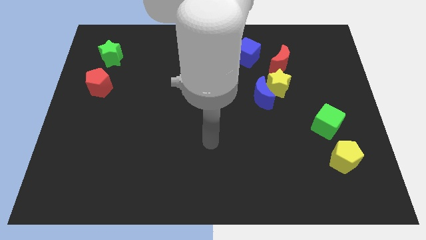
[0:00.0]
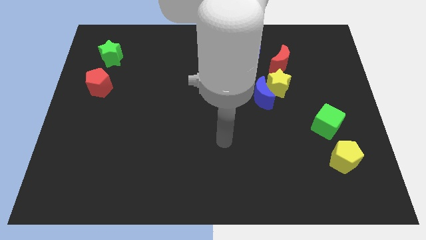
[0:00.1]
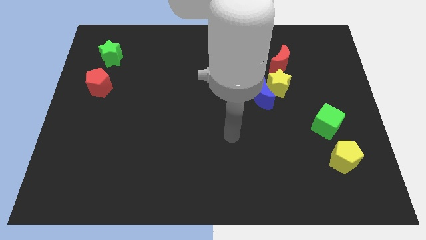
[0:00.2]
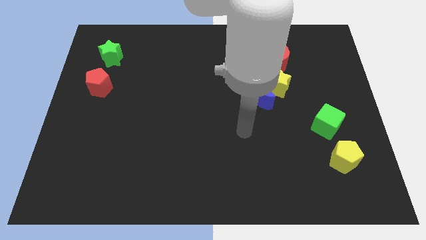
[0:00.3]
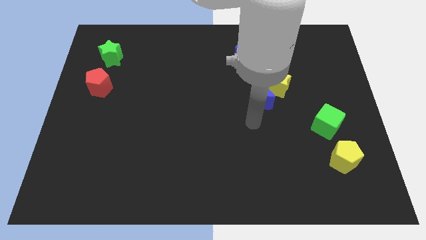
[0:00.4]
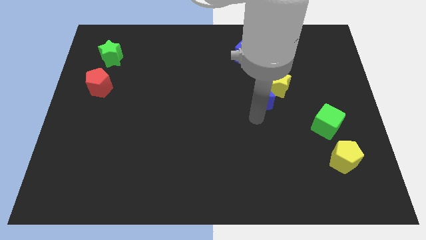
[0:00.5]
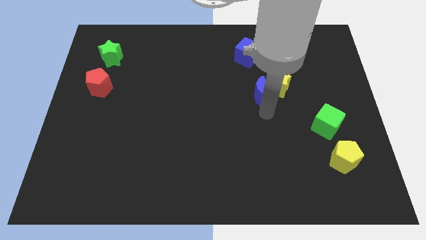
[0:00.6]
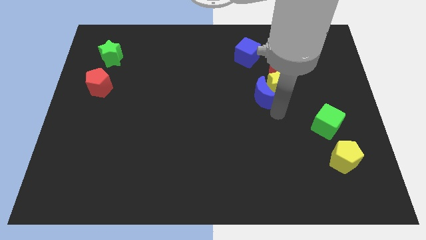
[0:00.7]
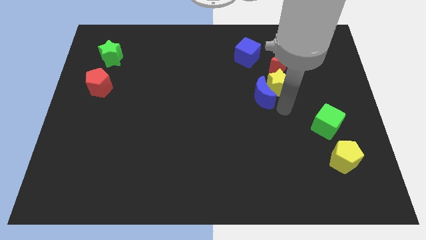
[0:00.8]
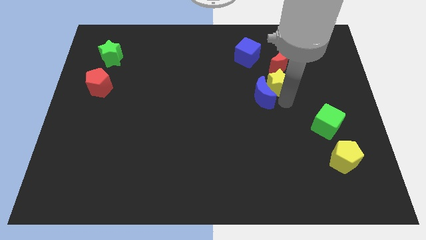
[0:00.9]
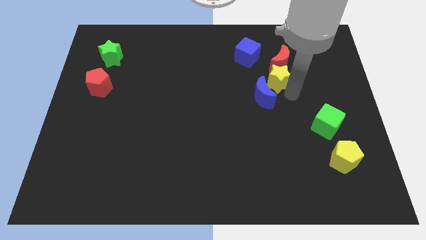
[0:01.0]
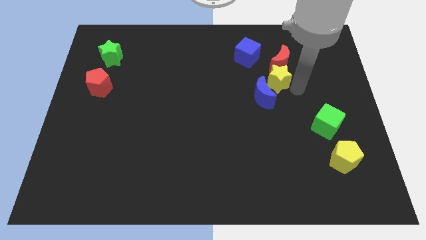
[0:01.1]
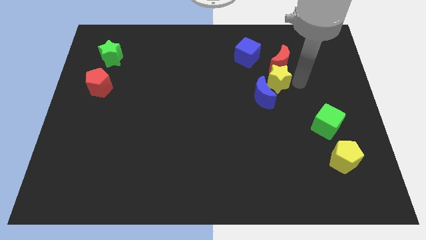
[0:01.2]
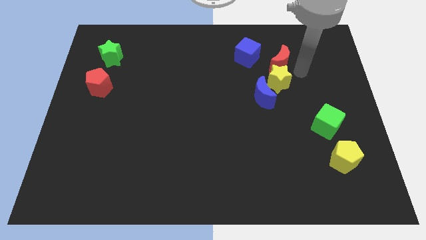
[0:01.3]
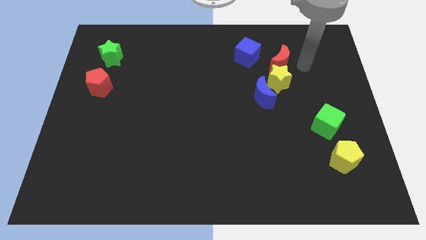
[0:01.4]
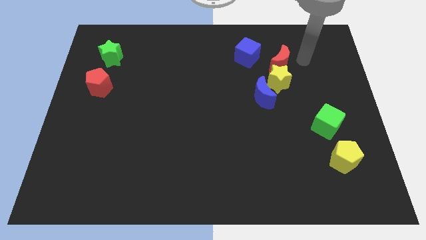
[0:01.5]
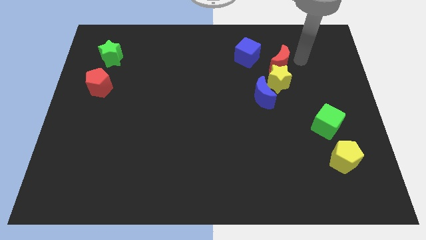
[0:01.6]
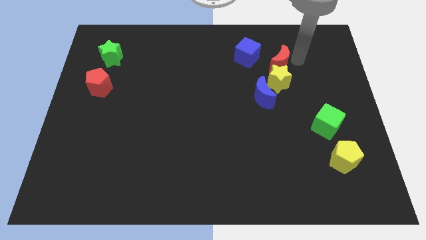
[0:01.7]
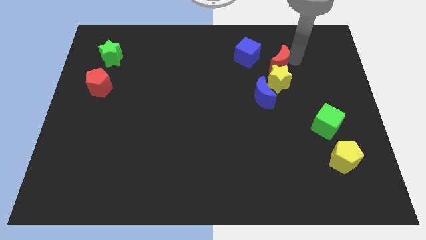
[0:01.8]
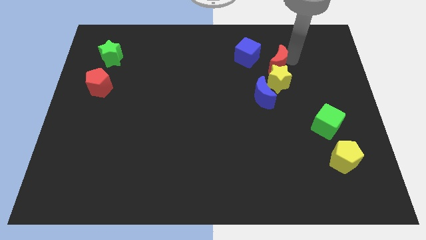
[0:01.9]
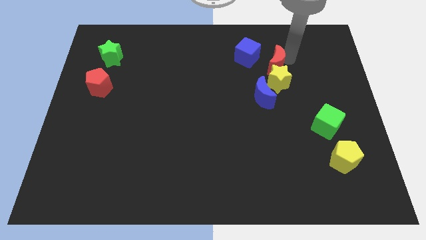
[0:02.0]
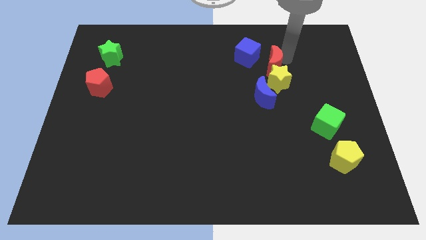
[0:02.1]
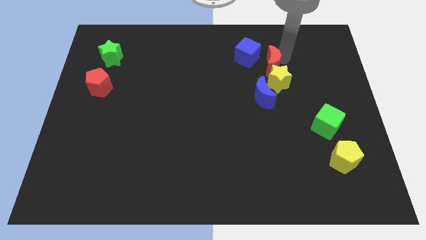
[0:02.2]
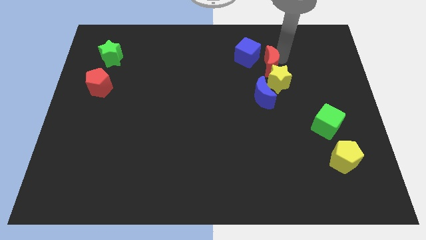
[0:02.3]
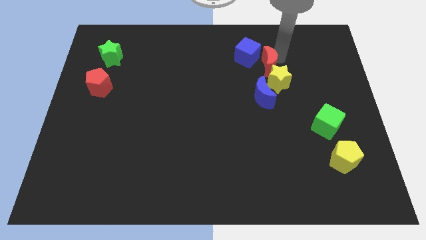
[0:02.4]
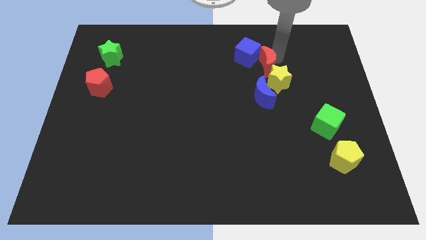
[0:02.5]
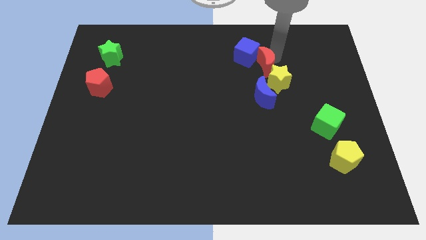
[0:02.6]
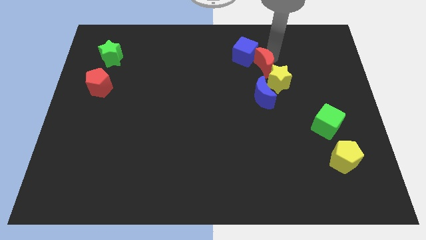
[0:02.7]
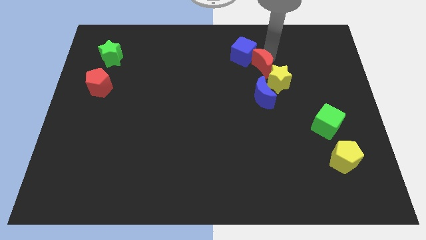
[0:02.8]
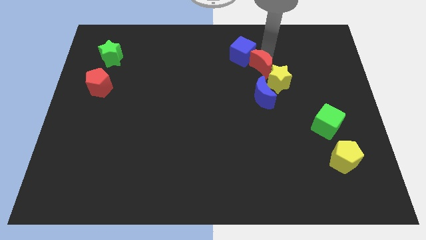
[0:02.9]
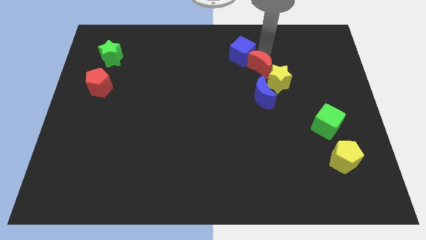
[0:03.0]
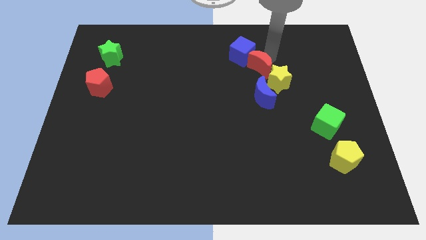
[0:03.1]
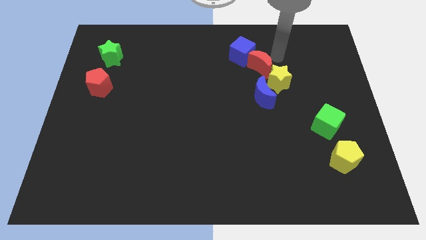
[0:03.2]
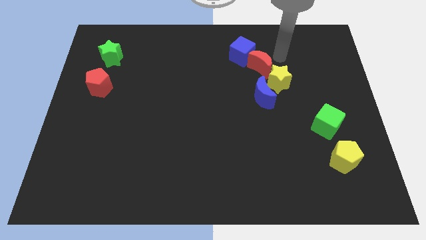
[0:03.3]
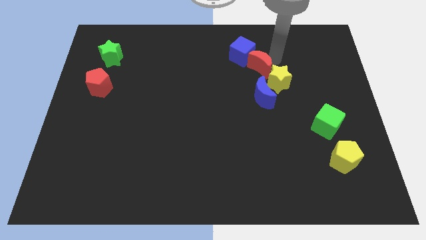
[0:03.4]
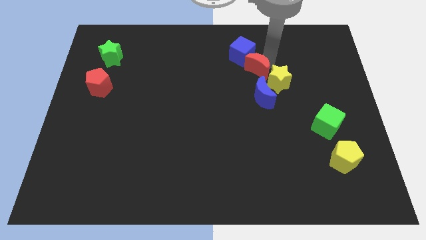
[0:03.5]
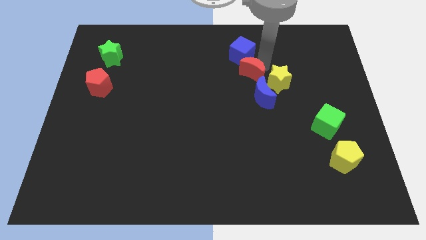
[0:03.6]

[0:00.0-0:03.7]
push the red moon left a little

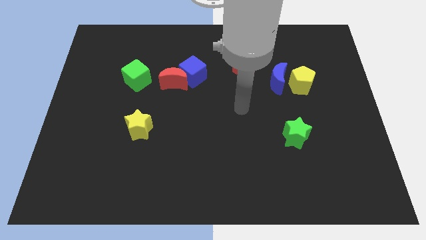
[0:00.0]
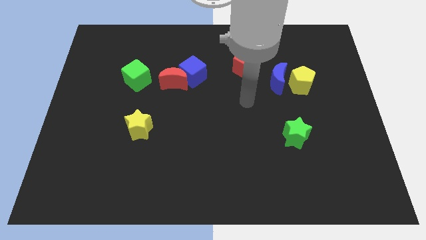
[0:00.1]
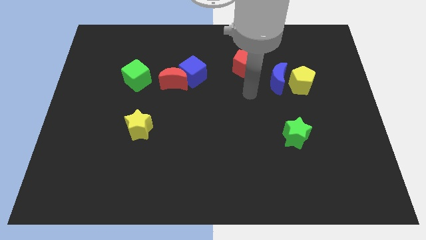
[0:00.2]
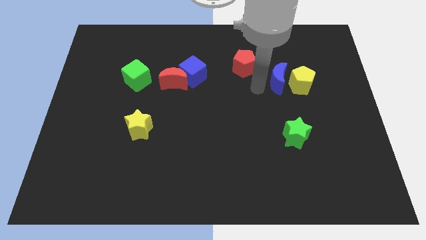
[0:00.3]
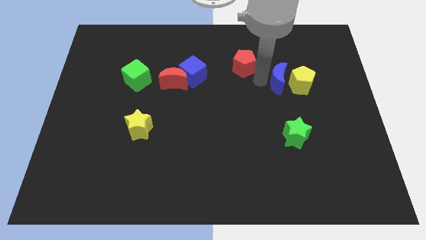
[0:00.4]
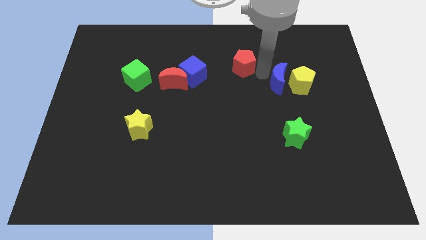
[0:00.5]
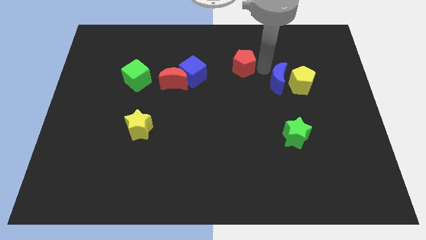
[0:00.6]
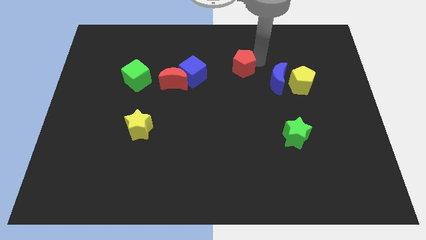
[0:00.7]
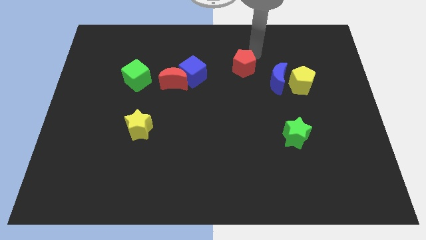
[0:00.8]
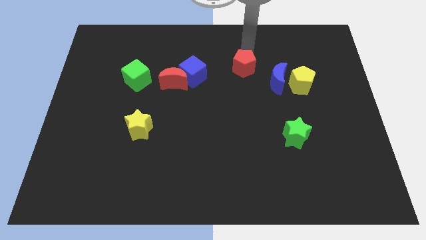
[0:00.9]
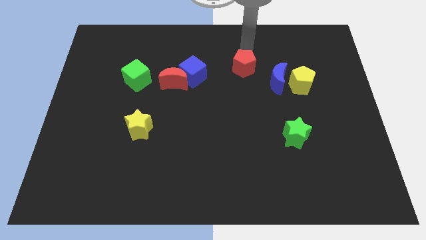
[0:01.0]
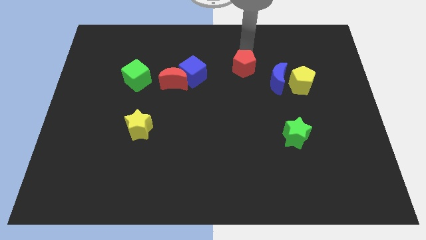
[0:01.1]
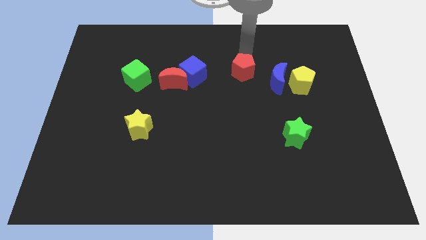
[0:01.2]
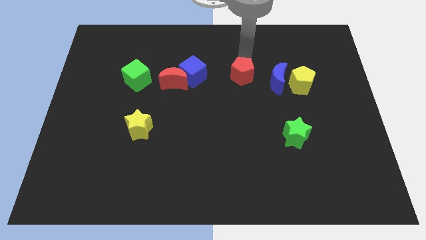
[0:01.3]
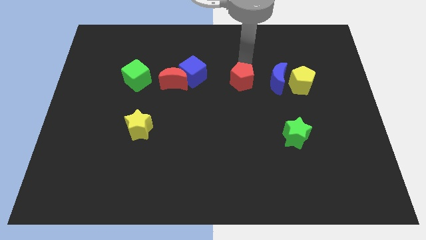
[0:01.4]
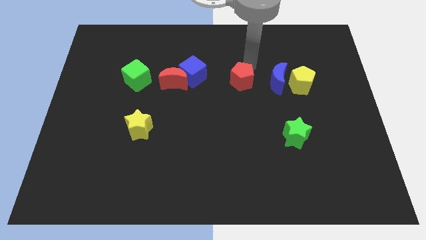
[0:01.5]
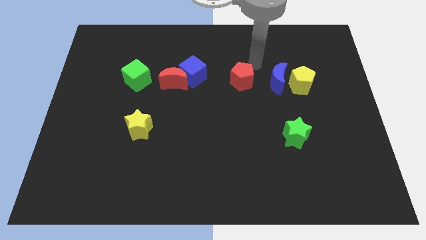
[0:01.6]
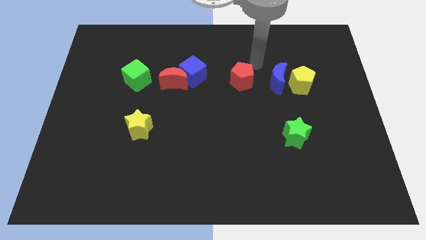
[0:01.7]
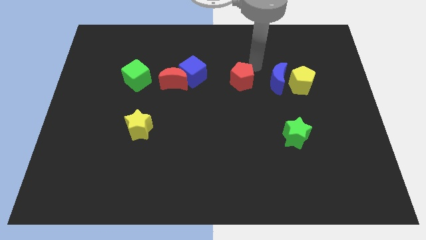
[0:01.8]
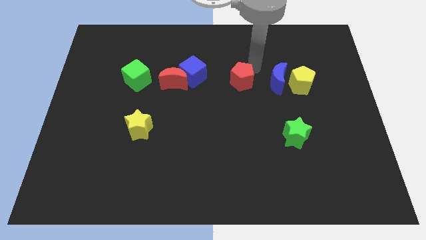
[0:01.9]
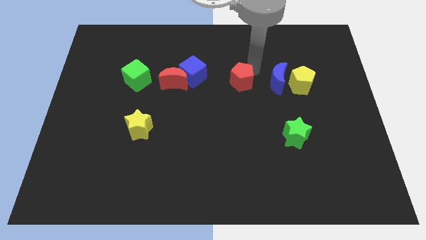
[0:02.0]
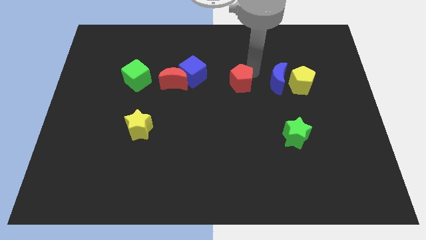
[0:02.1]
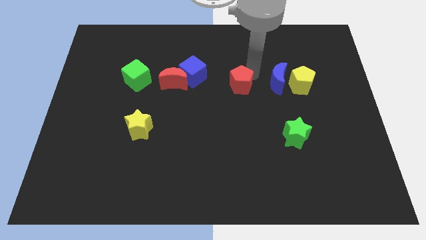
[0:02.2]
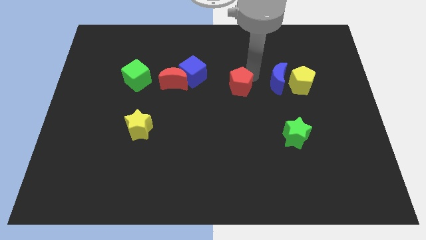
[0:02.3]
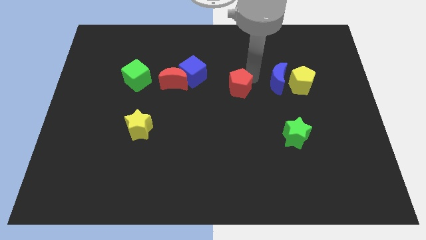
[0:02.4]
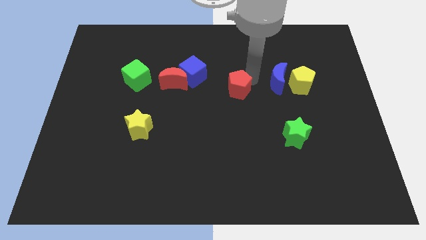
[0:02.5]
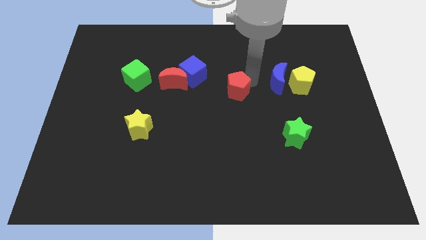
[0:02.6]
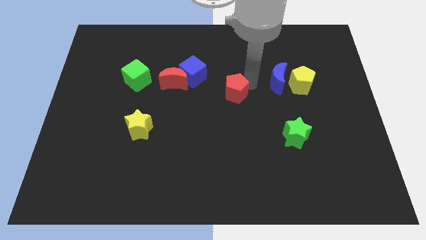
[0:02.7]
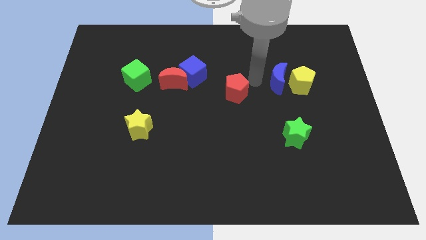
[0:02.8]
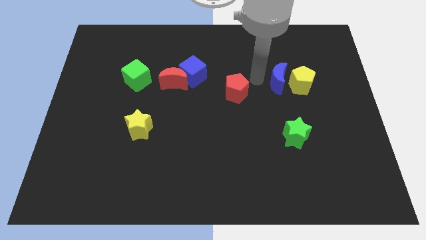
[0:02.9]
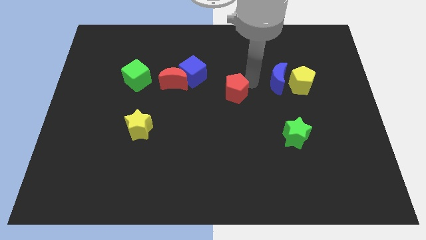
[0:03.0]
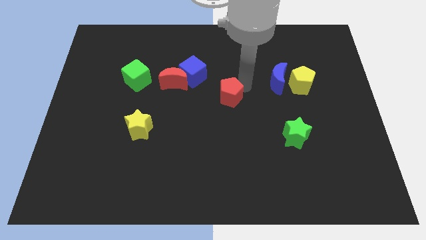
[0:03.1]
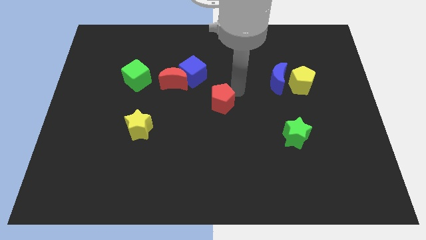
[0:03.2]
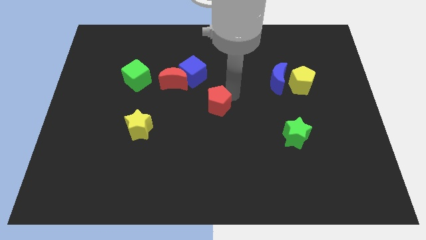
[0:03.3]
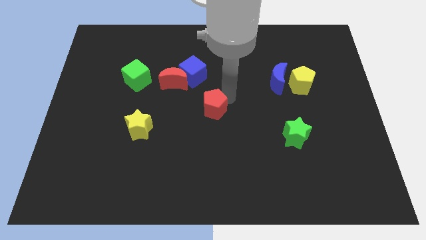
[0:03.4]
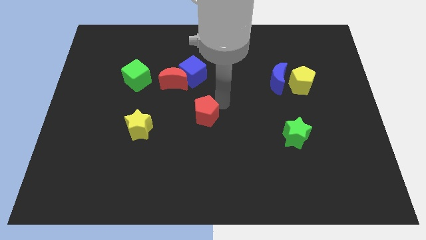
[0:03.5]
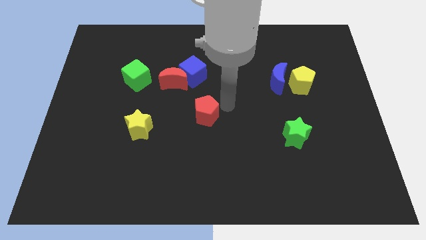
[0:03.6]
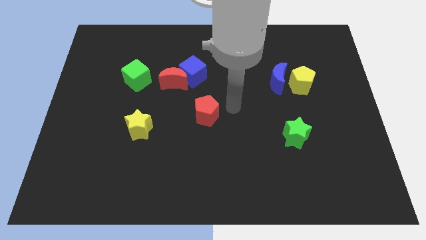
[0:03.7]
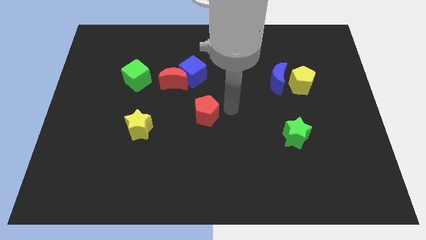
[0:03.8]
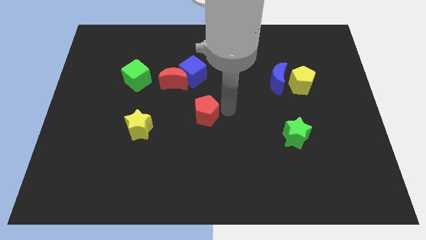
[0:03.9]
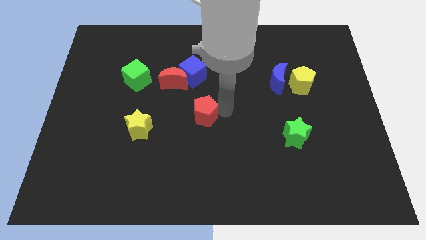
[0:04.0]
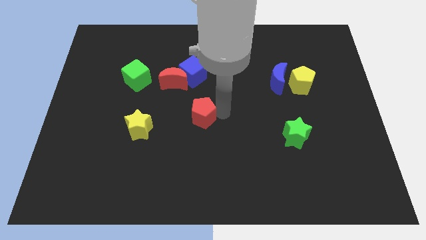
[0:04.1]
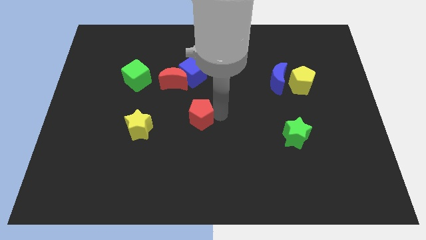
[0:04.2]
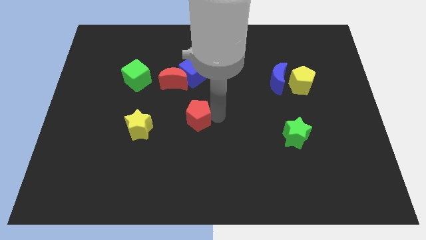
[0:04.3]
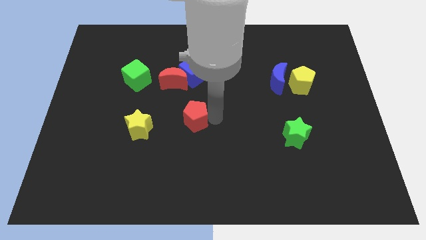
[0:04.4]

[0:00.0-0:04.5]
move the red pentagon downwards and then left
